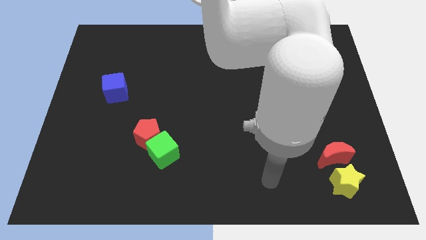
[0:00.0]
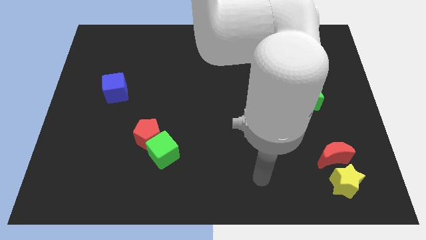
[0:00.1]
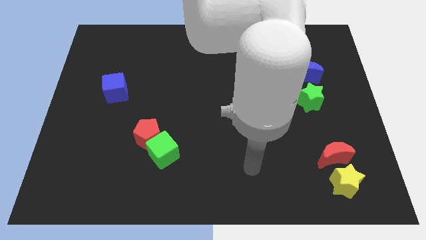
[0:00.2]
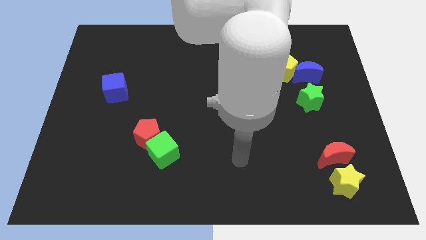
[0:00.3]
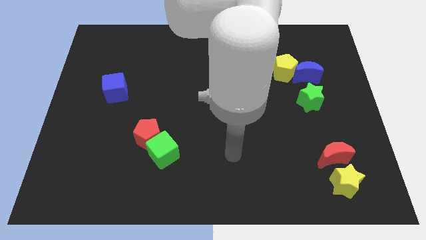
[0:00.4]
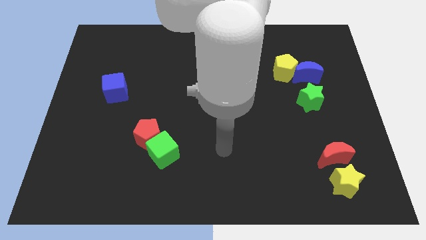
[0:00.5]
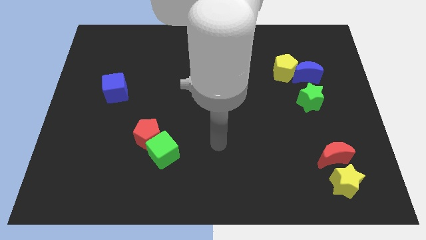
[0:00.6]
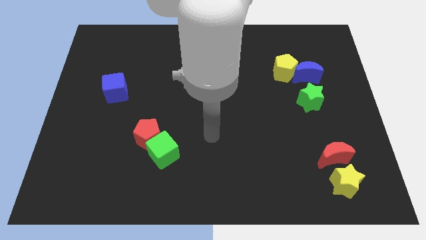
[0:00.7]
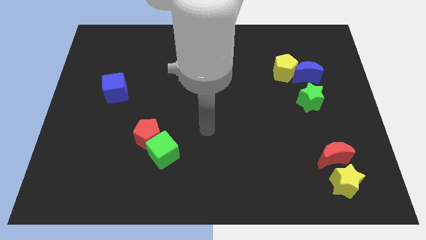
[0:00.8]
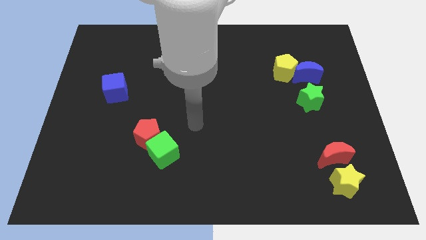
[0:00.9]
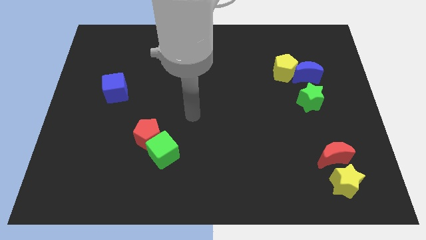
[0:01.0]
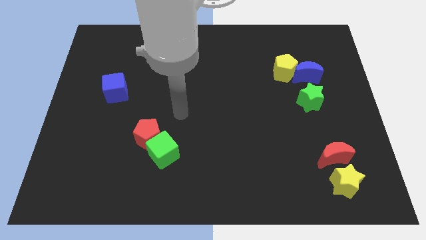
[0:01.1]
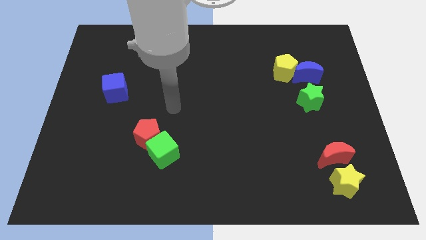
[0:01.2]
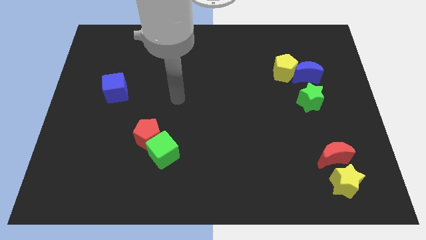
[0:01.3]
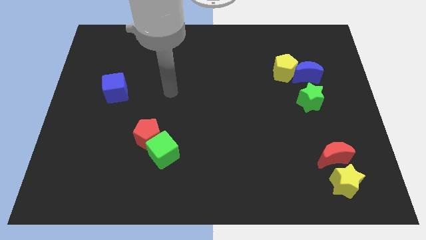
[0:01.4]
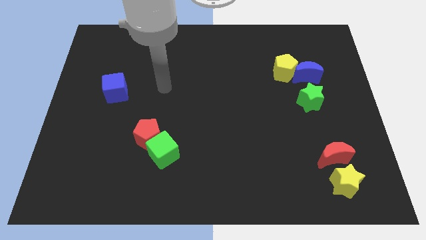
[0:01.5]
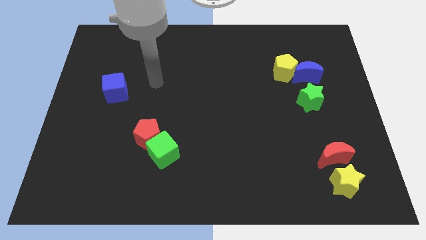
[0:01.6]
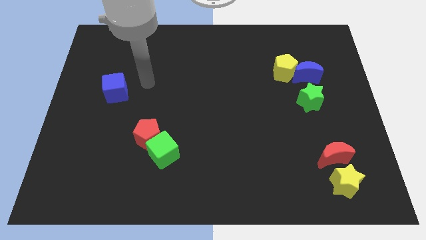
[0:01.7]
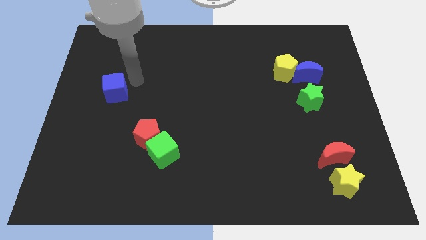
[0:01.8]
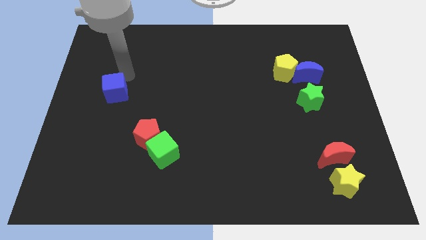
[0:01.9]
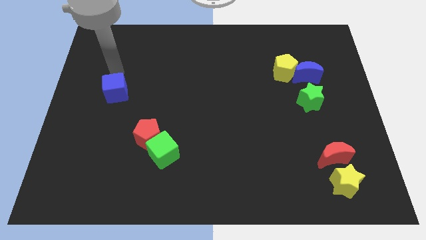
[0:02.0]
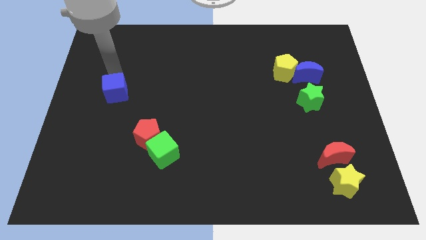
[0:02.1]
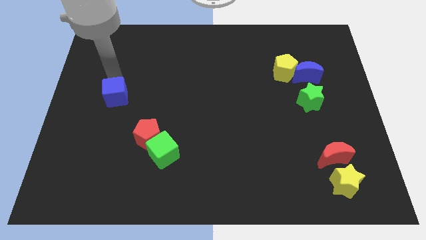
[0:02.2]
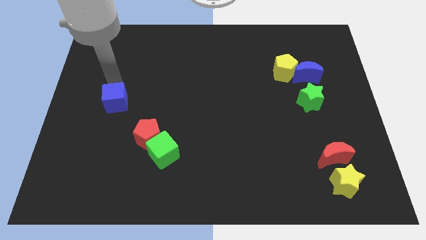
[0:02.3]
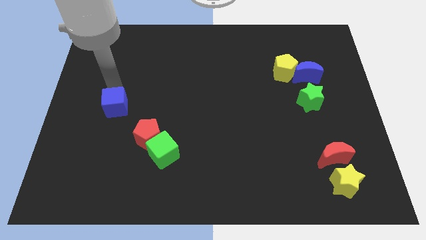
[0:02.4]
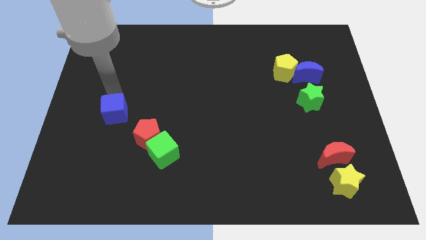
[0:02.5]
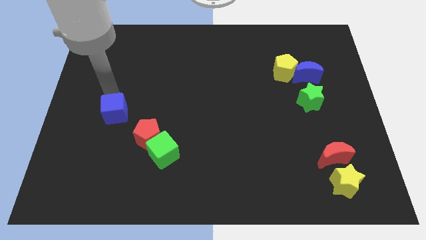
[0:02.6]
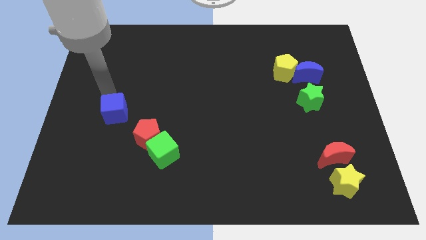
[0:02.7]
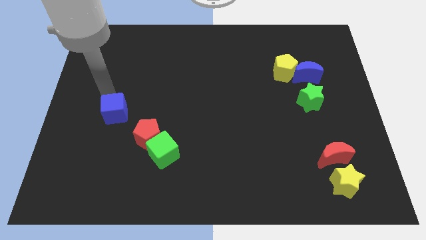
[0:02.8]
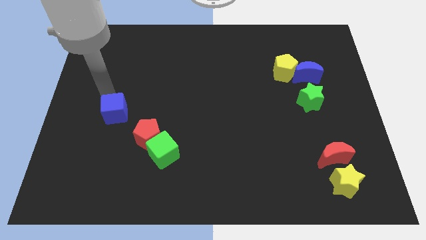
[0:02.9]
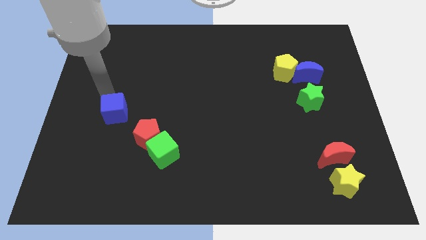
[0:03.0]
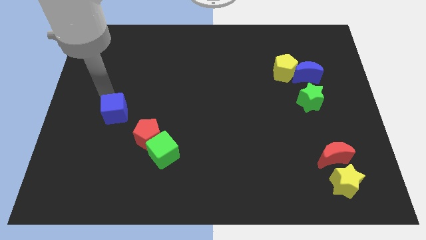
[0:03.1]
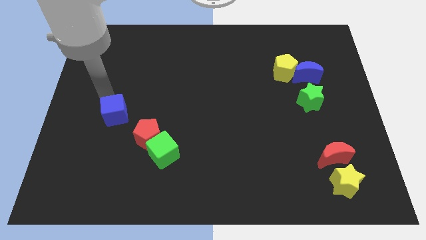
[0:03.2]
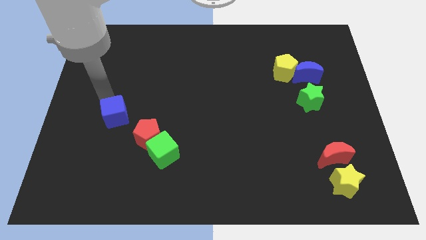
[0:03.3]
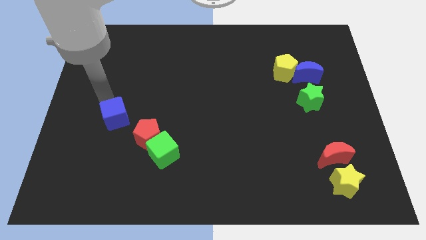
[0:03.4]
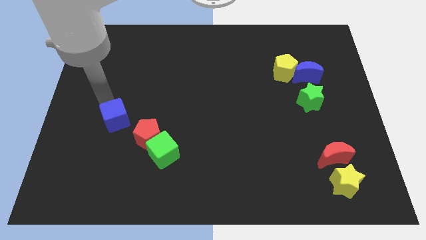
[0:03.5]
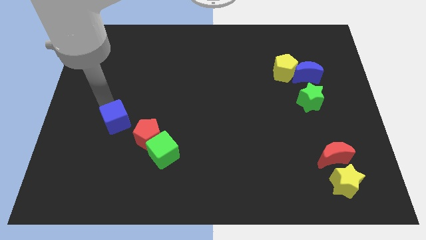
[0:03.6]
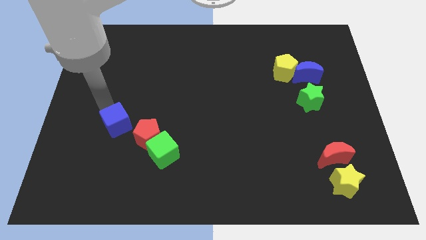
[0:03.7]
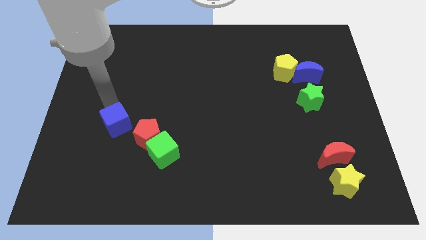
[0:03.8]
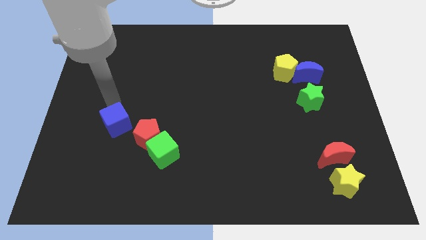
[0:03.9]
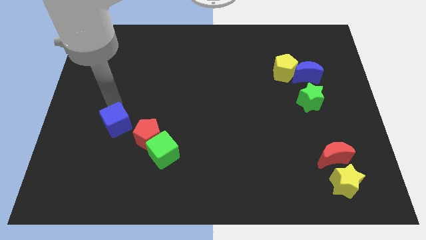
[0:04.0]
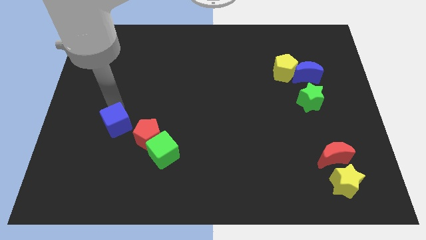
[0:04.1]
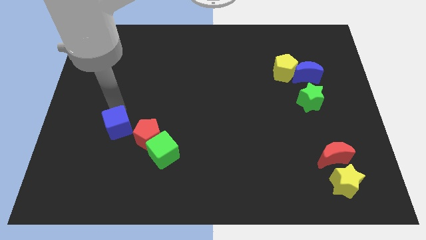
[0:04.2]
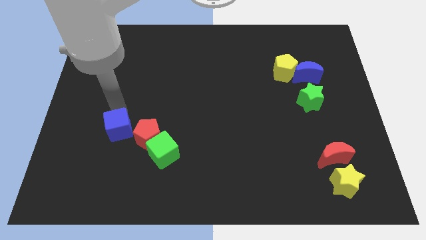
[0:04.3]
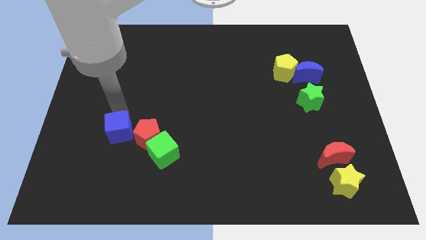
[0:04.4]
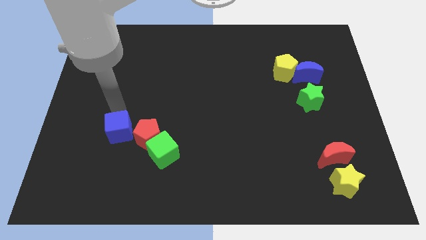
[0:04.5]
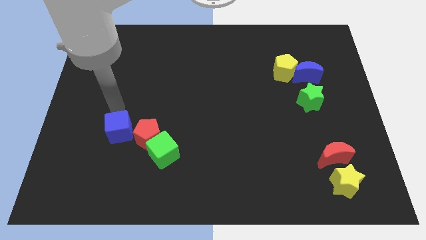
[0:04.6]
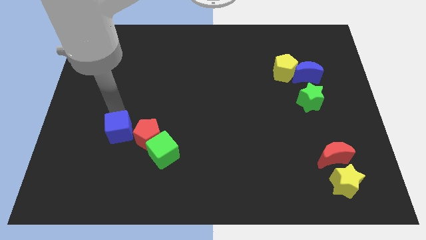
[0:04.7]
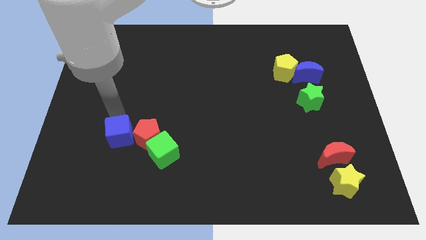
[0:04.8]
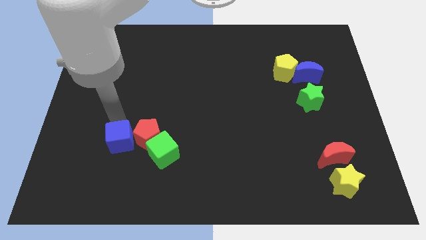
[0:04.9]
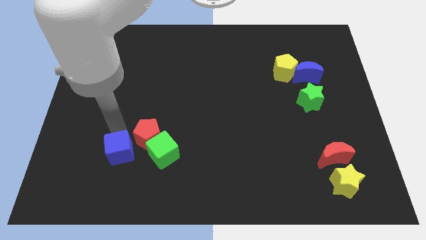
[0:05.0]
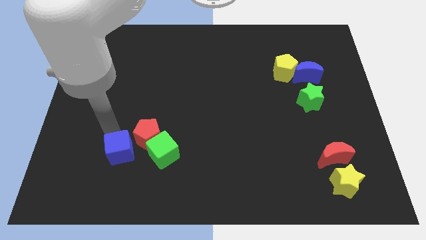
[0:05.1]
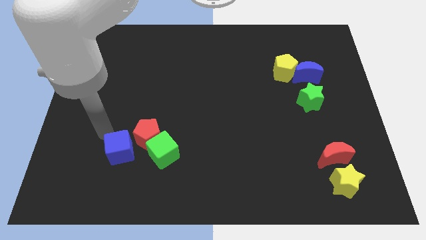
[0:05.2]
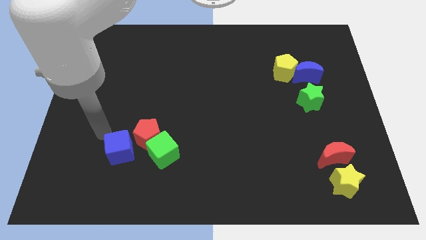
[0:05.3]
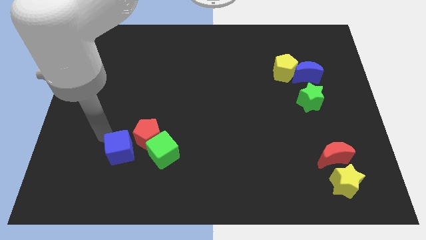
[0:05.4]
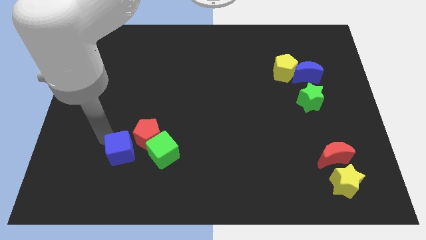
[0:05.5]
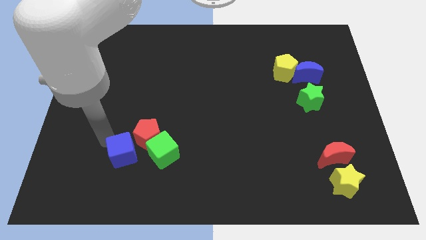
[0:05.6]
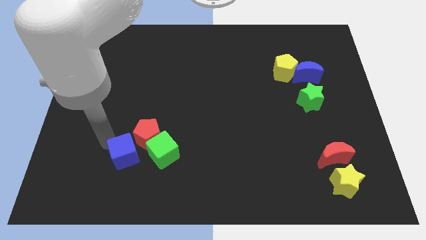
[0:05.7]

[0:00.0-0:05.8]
put the blue cube to the bottom side of the red pentagon

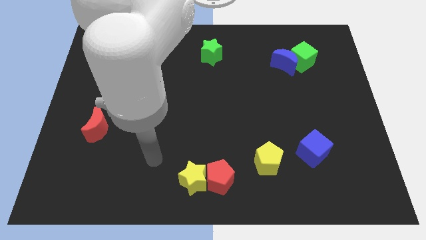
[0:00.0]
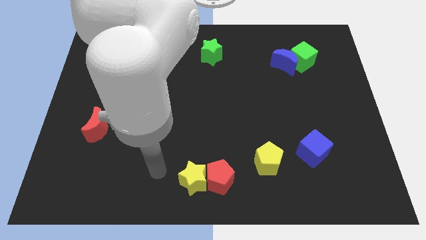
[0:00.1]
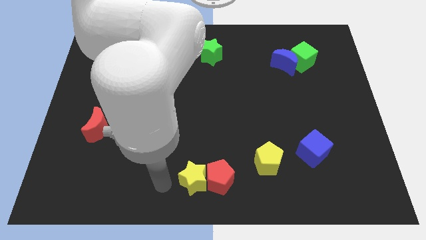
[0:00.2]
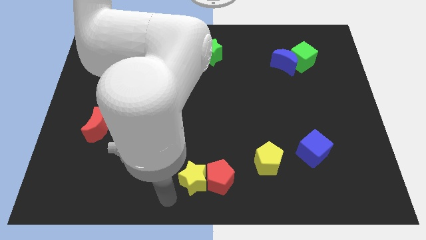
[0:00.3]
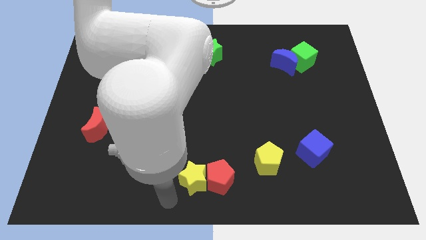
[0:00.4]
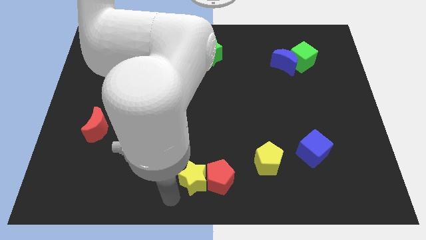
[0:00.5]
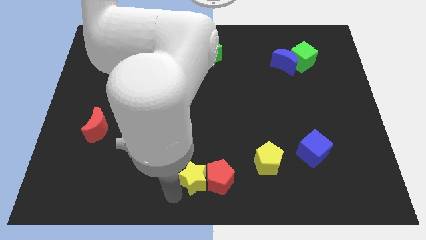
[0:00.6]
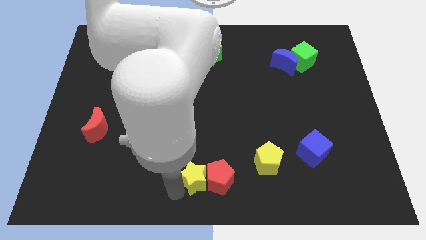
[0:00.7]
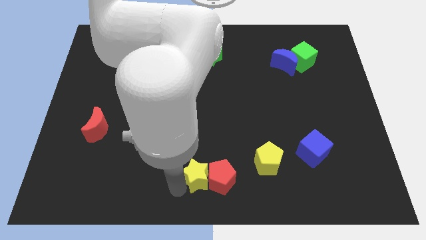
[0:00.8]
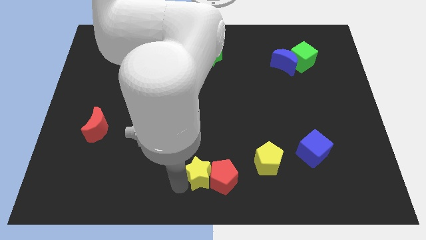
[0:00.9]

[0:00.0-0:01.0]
move the yellow star left of the yellow pentagon

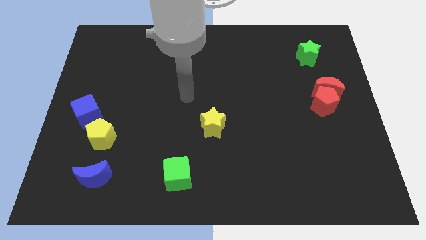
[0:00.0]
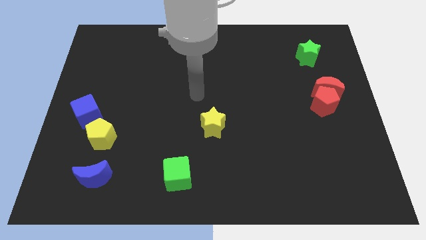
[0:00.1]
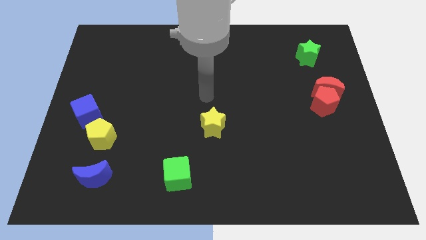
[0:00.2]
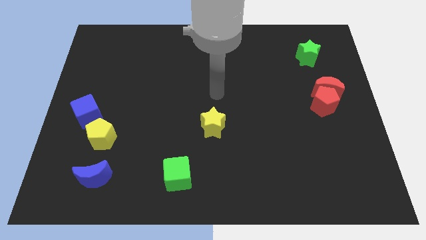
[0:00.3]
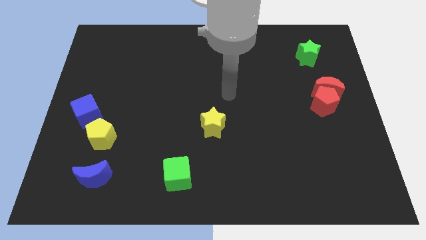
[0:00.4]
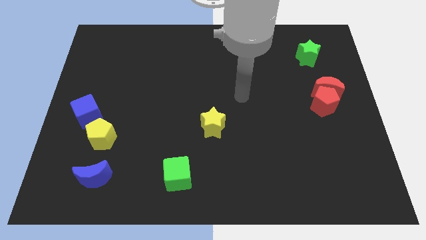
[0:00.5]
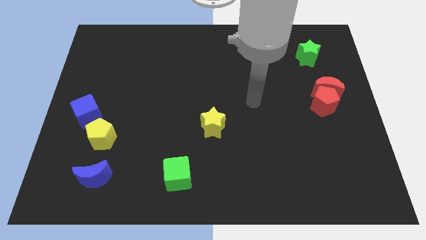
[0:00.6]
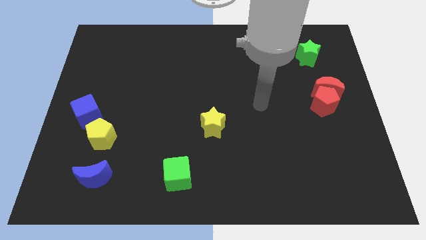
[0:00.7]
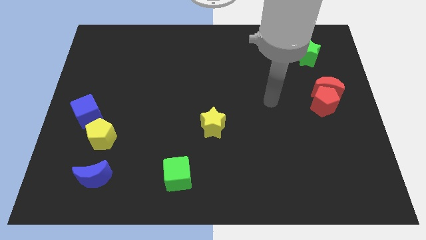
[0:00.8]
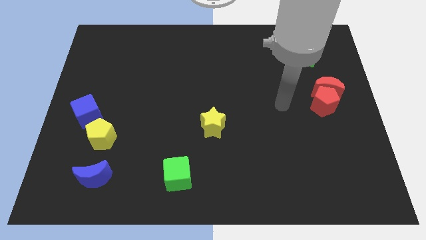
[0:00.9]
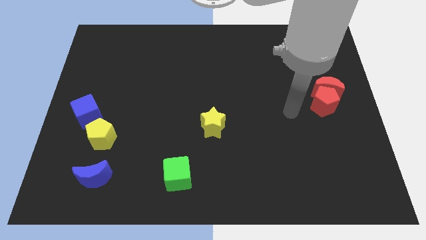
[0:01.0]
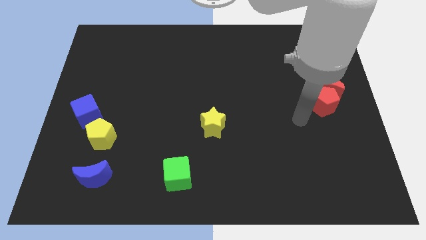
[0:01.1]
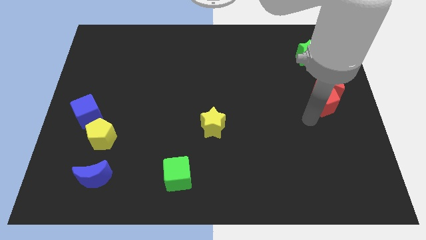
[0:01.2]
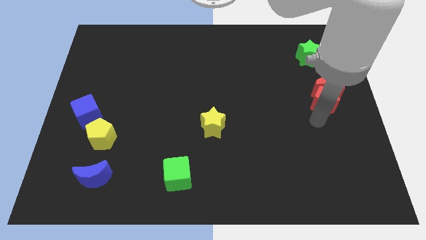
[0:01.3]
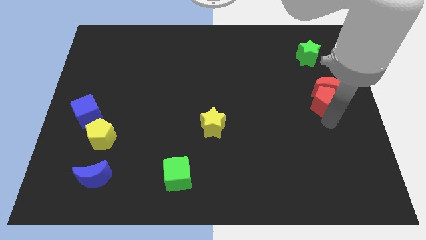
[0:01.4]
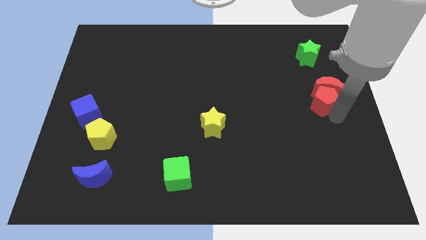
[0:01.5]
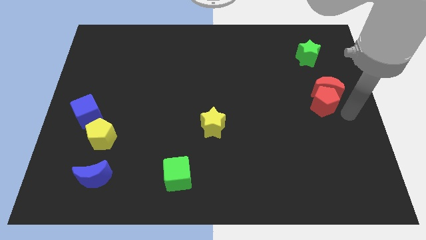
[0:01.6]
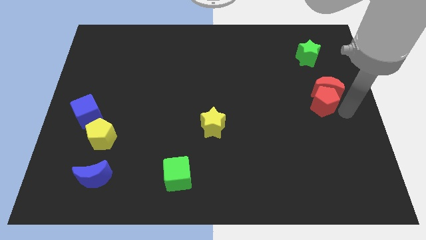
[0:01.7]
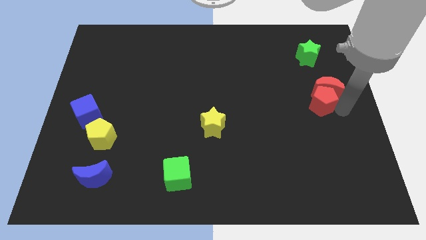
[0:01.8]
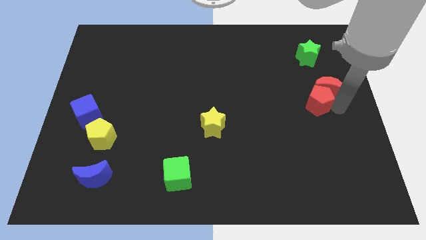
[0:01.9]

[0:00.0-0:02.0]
move the red pentagon left of the red moon
